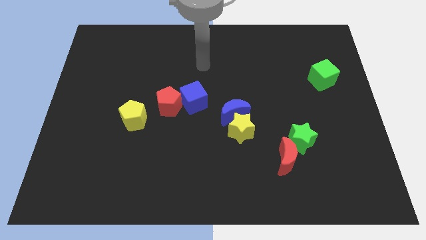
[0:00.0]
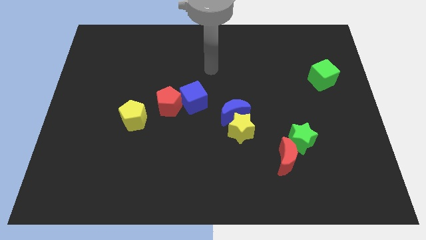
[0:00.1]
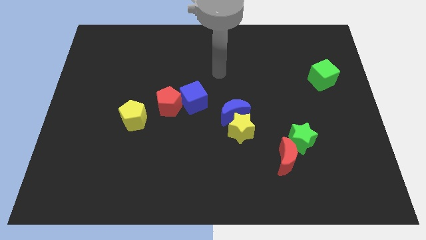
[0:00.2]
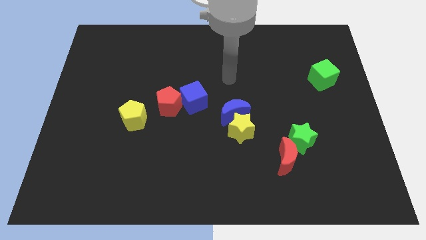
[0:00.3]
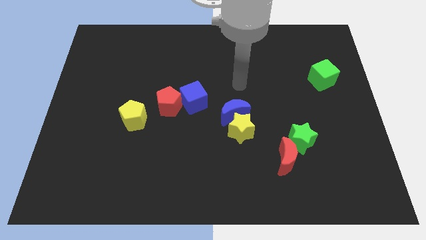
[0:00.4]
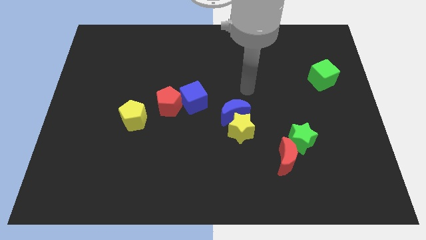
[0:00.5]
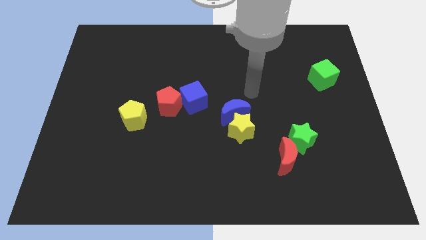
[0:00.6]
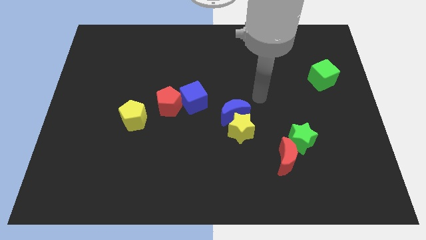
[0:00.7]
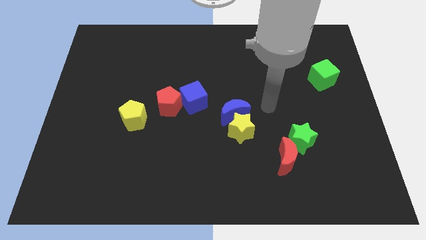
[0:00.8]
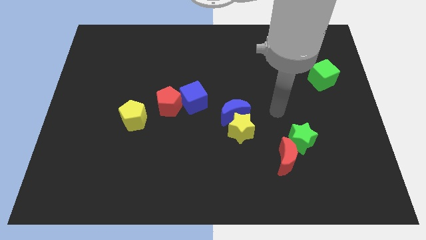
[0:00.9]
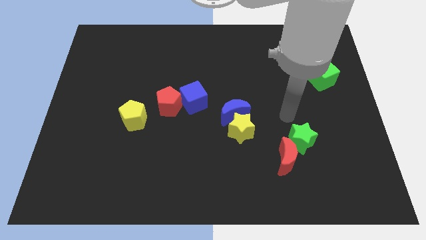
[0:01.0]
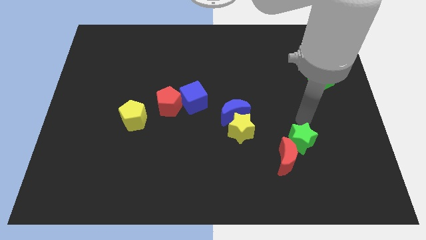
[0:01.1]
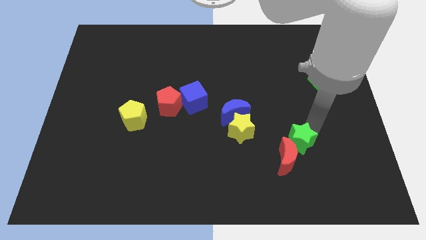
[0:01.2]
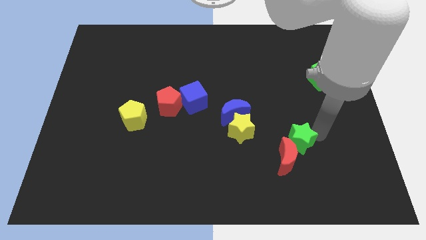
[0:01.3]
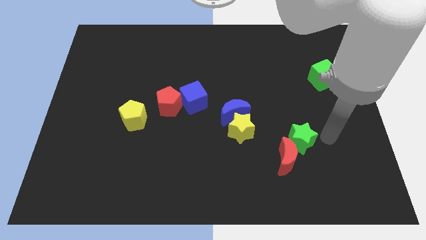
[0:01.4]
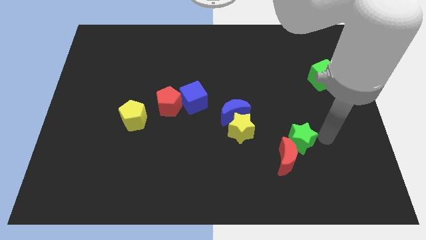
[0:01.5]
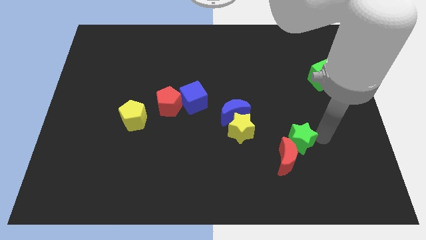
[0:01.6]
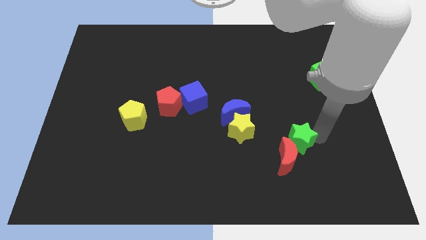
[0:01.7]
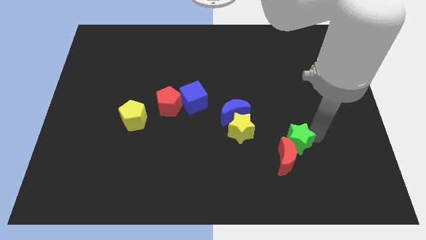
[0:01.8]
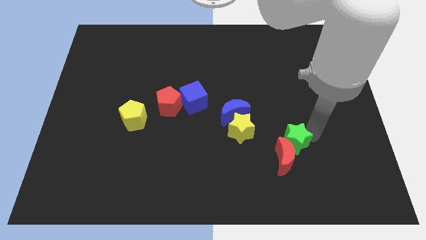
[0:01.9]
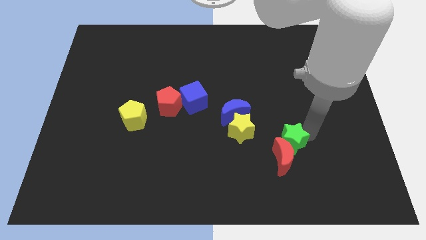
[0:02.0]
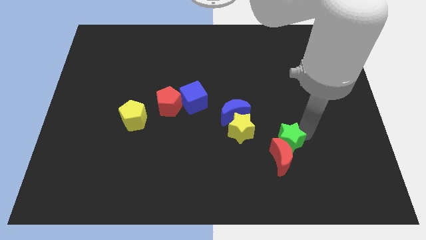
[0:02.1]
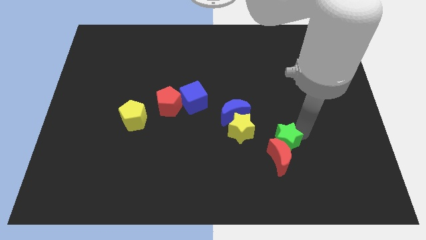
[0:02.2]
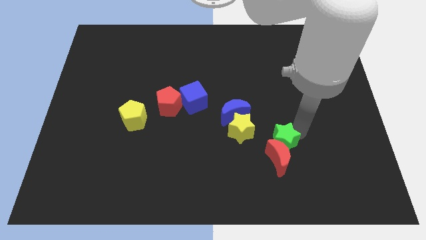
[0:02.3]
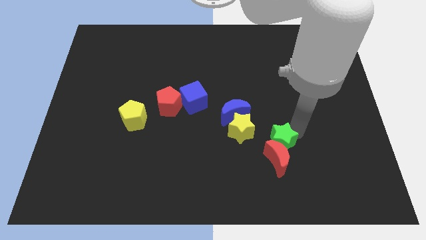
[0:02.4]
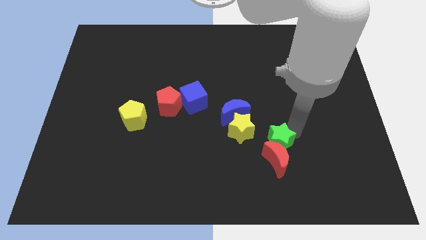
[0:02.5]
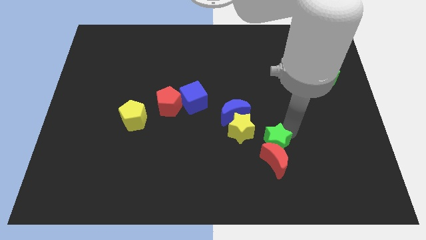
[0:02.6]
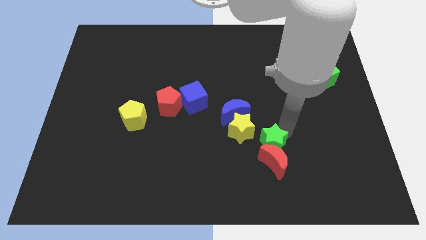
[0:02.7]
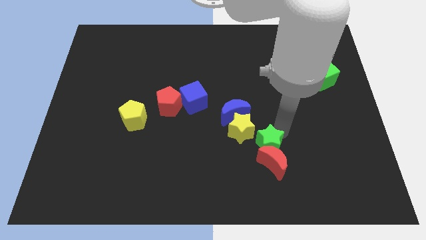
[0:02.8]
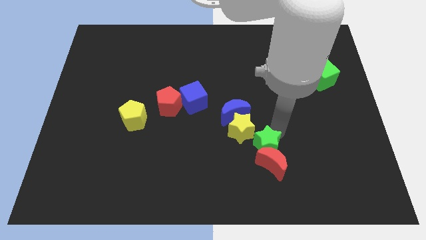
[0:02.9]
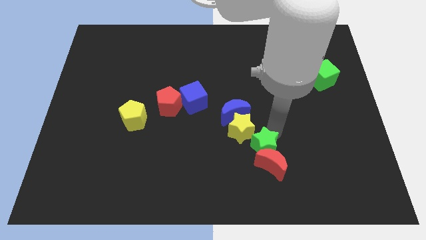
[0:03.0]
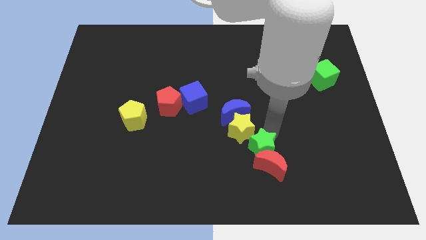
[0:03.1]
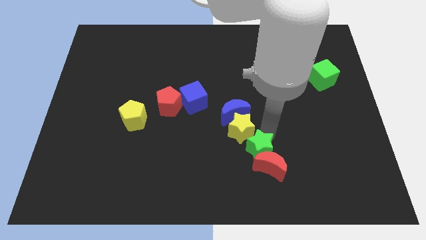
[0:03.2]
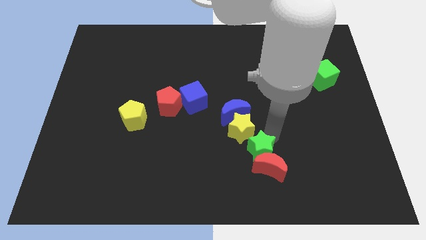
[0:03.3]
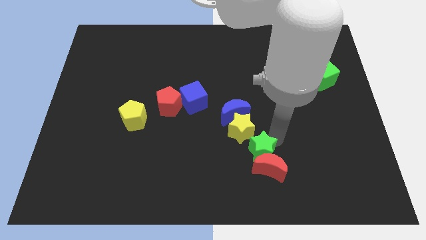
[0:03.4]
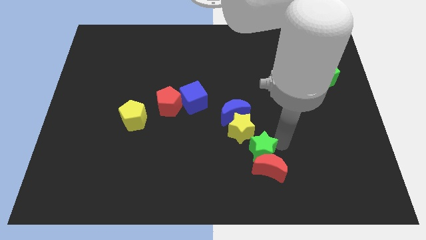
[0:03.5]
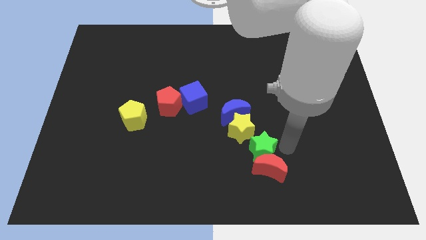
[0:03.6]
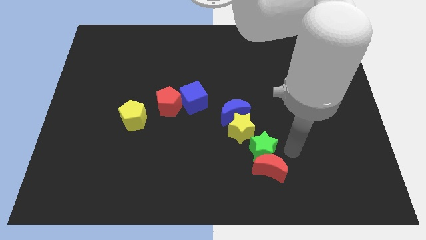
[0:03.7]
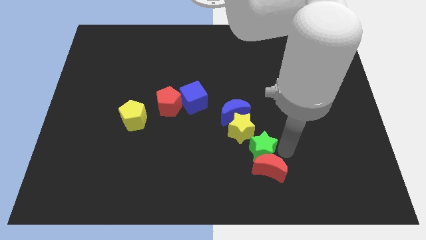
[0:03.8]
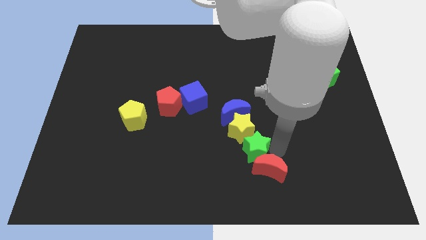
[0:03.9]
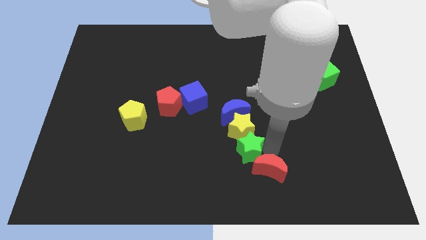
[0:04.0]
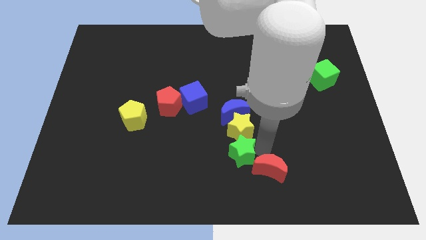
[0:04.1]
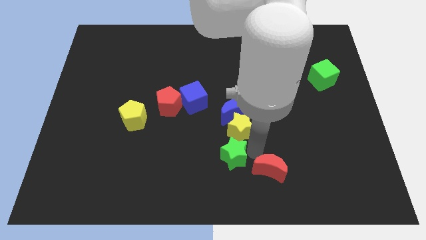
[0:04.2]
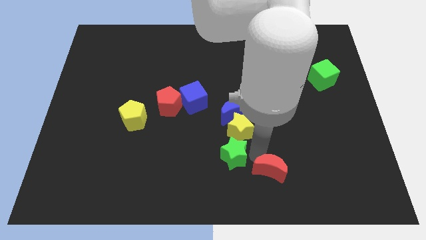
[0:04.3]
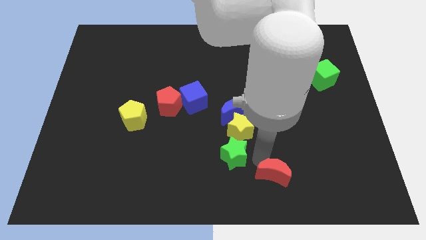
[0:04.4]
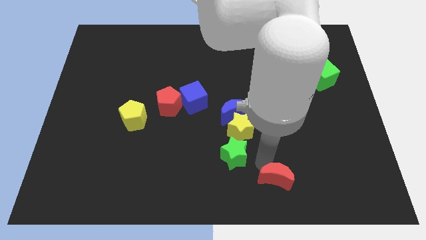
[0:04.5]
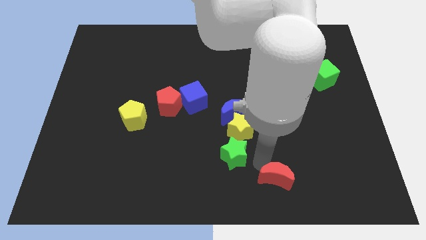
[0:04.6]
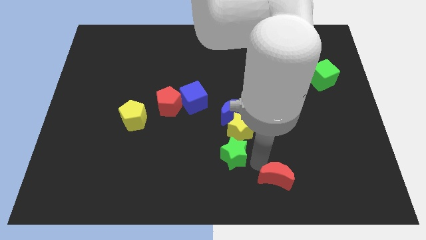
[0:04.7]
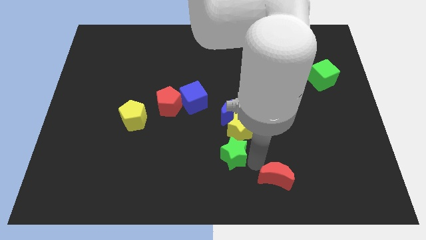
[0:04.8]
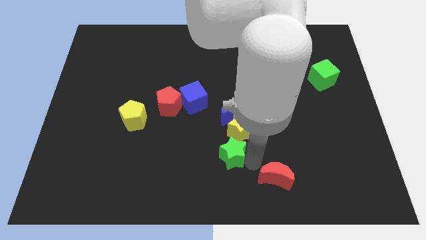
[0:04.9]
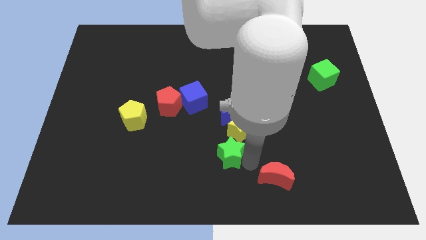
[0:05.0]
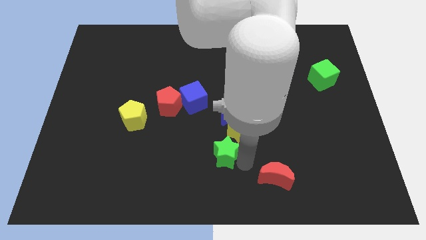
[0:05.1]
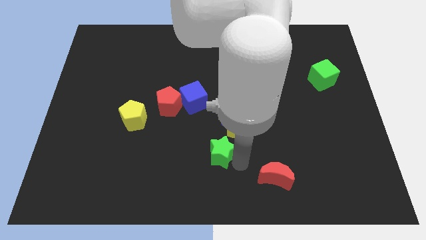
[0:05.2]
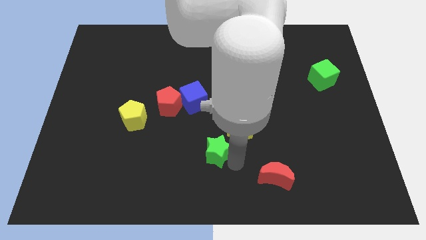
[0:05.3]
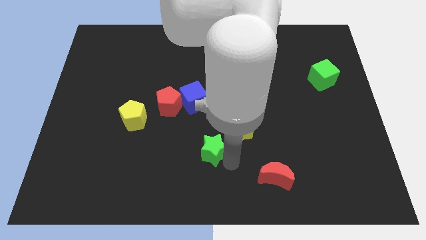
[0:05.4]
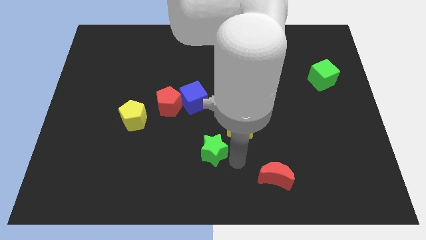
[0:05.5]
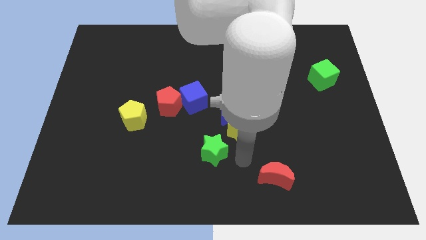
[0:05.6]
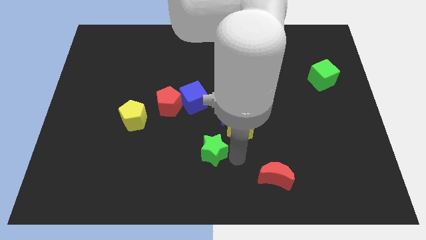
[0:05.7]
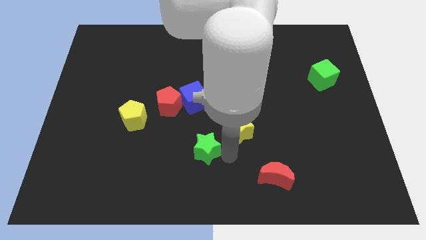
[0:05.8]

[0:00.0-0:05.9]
push the green star left

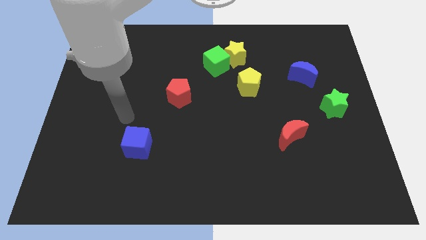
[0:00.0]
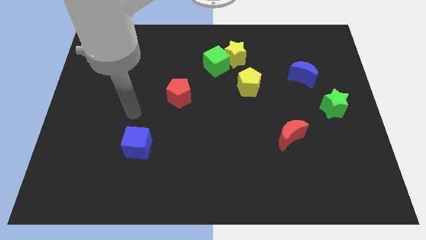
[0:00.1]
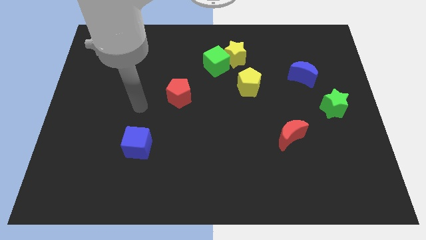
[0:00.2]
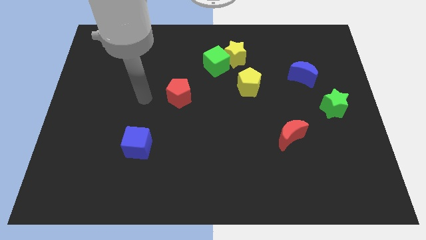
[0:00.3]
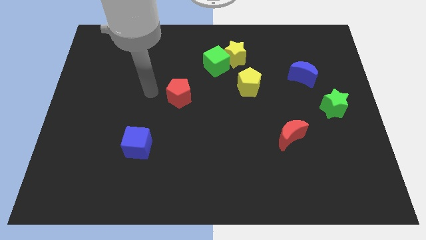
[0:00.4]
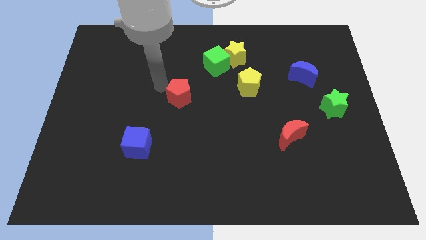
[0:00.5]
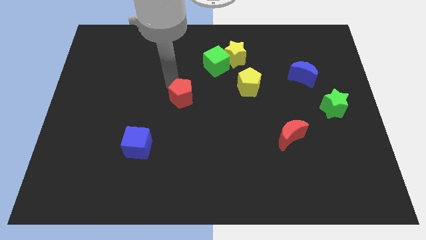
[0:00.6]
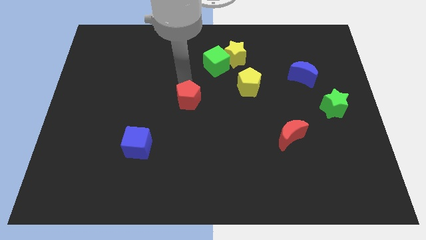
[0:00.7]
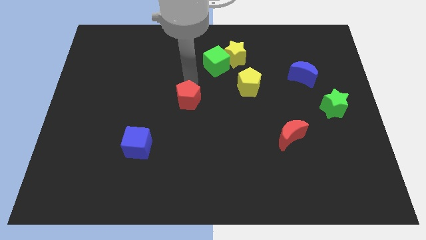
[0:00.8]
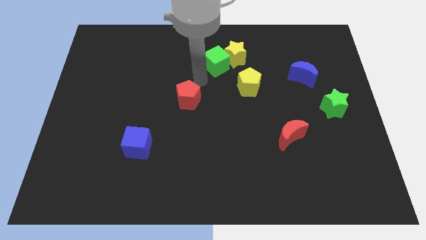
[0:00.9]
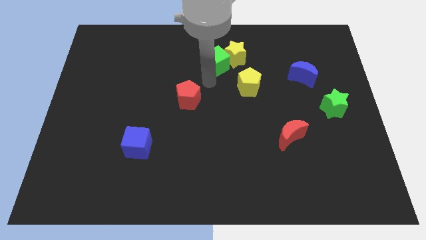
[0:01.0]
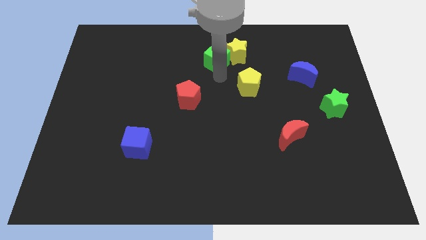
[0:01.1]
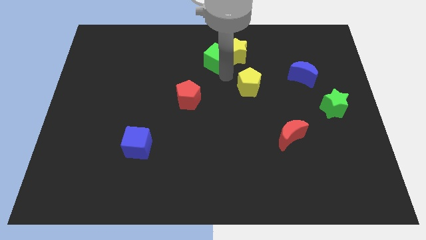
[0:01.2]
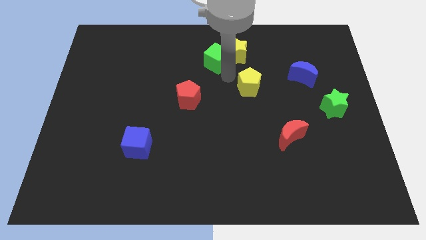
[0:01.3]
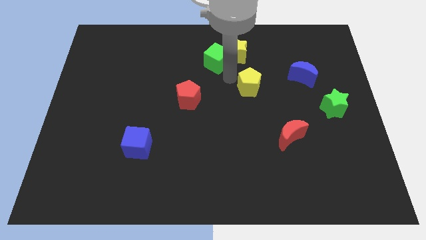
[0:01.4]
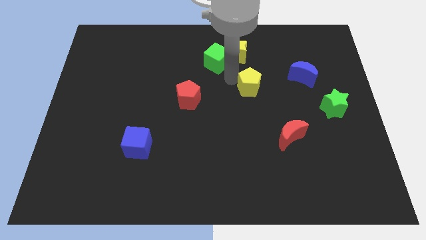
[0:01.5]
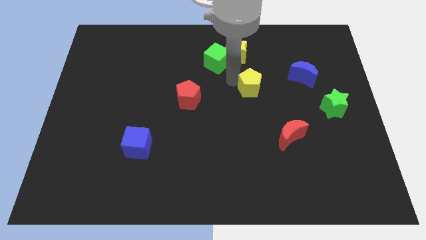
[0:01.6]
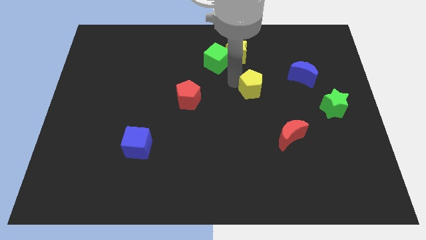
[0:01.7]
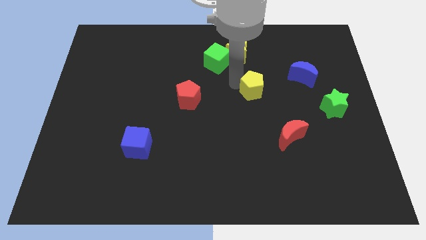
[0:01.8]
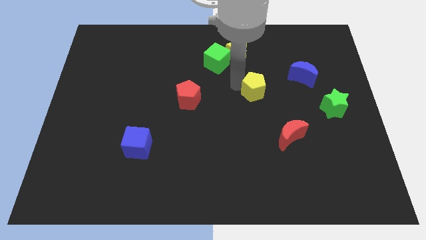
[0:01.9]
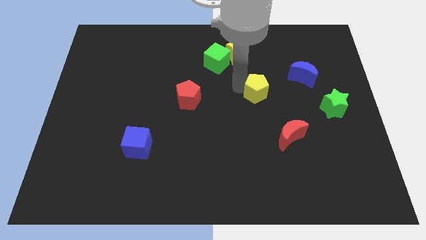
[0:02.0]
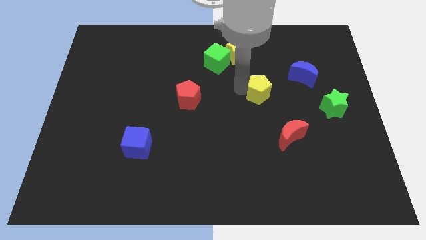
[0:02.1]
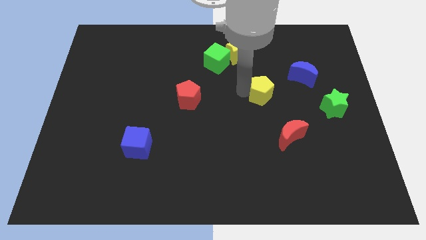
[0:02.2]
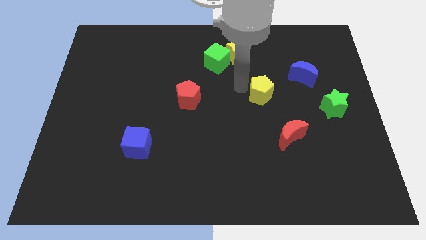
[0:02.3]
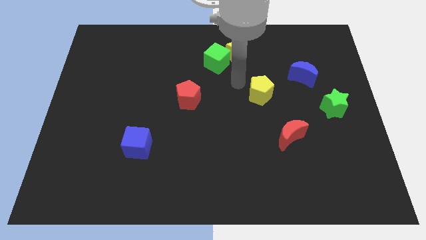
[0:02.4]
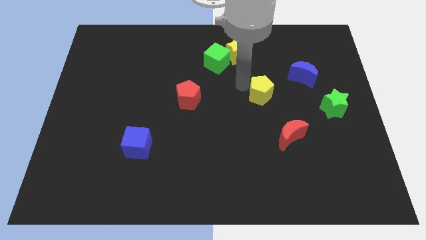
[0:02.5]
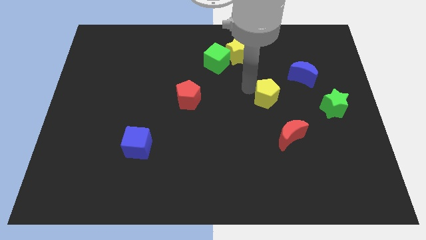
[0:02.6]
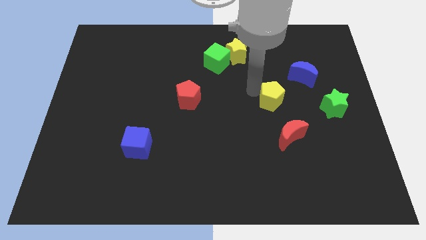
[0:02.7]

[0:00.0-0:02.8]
push the yellow pentagon downwards and to the right diagonally a little bit
